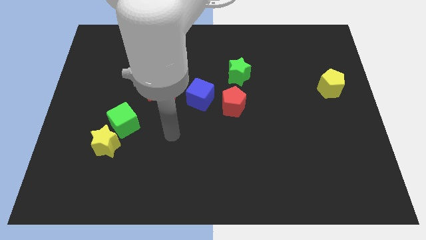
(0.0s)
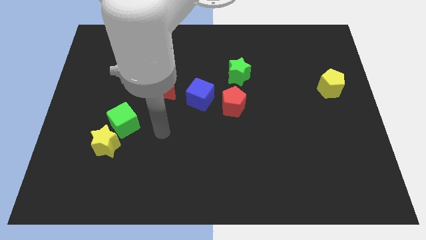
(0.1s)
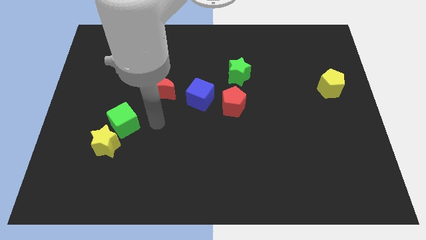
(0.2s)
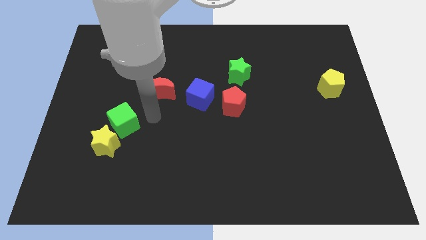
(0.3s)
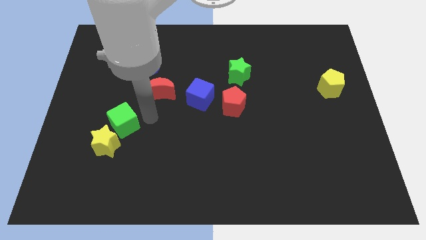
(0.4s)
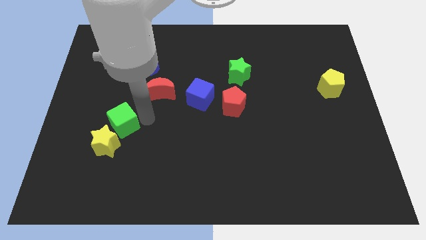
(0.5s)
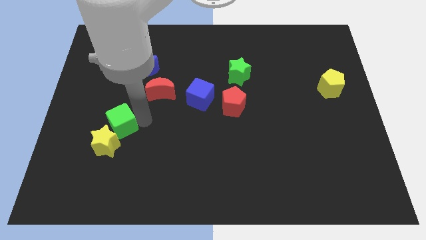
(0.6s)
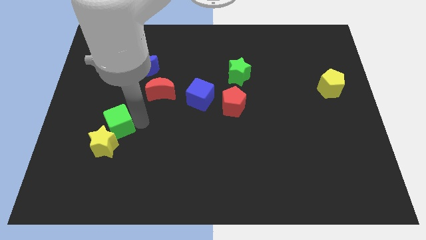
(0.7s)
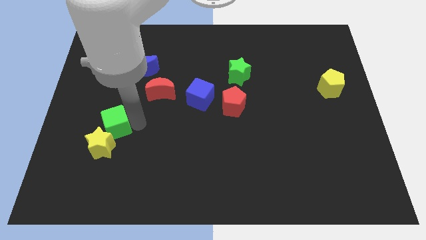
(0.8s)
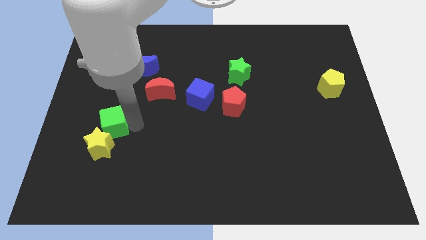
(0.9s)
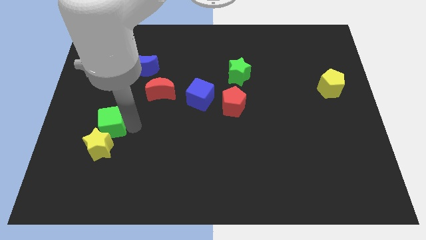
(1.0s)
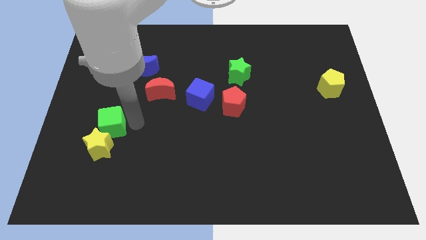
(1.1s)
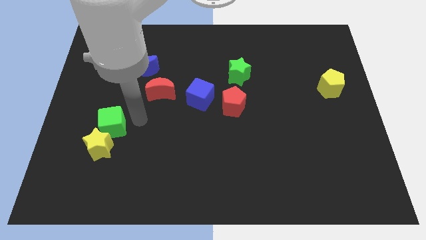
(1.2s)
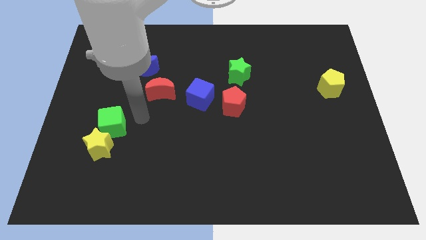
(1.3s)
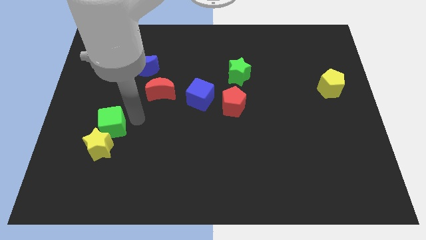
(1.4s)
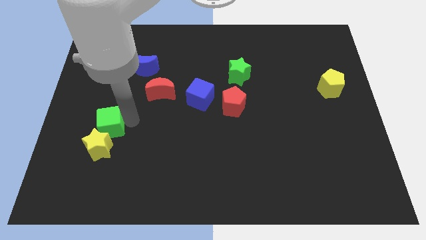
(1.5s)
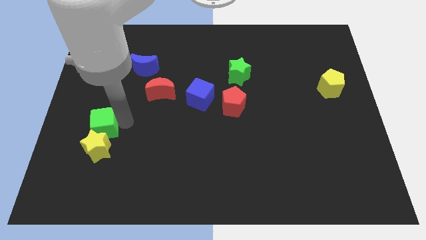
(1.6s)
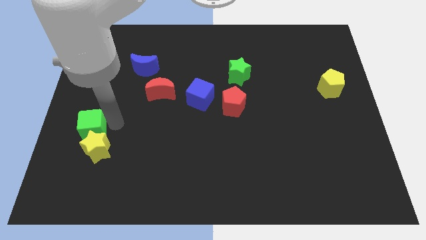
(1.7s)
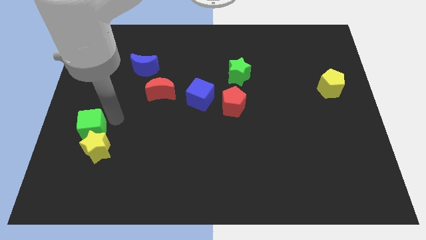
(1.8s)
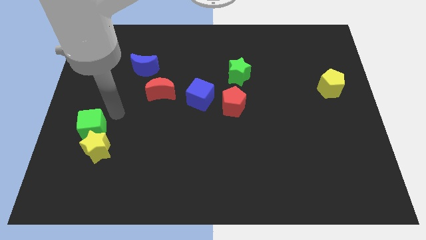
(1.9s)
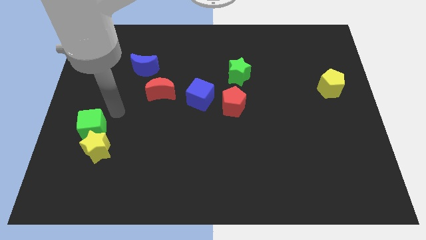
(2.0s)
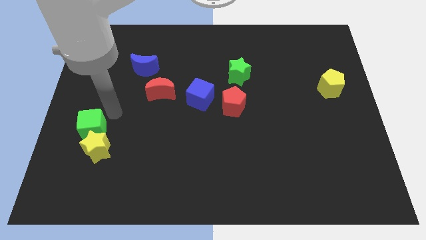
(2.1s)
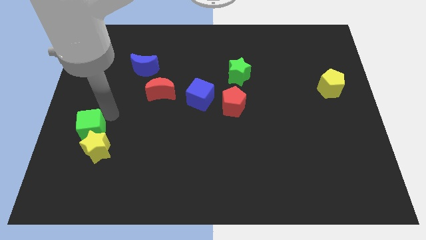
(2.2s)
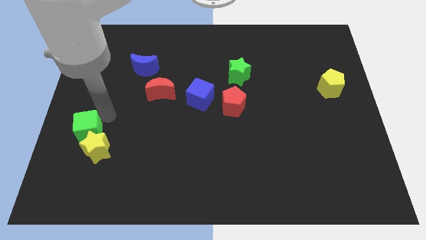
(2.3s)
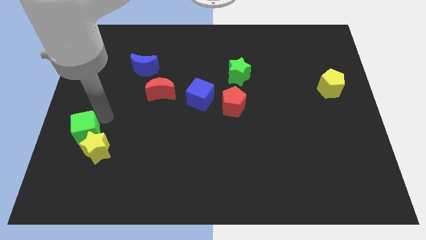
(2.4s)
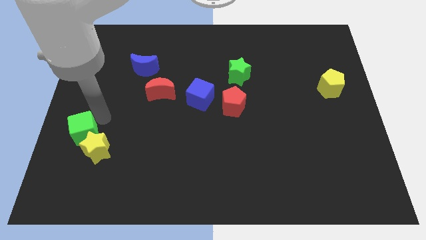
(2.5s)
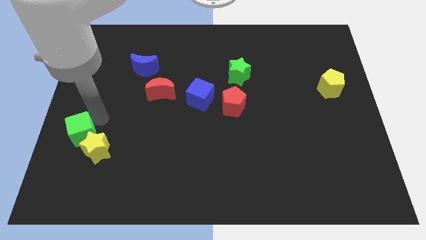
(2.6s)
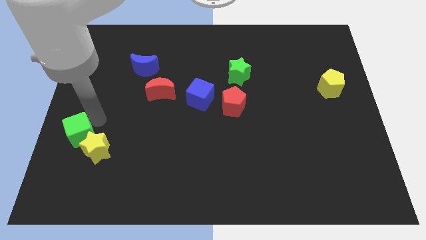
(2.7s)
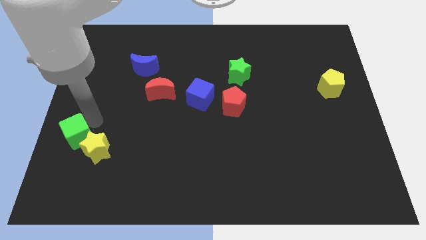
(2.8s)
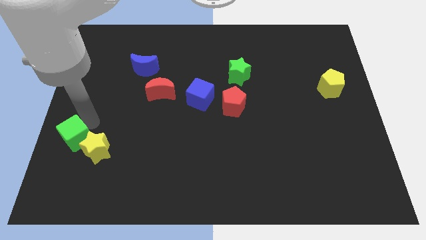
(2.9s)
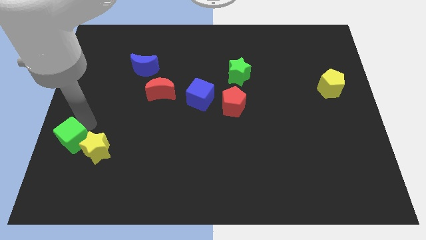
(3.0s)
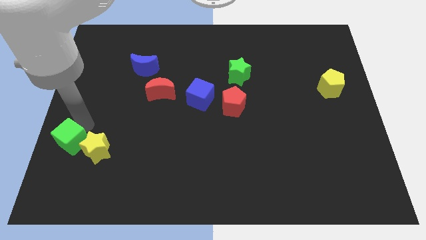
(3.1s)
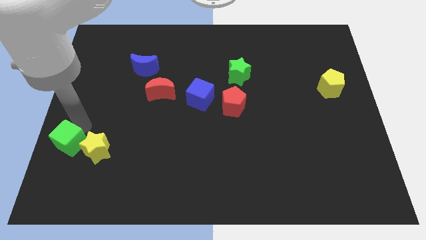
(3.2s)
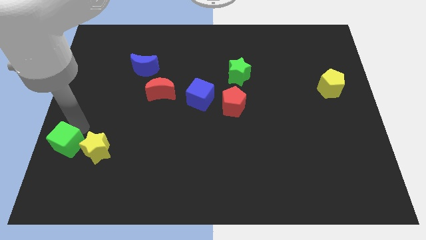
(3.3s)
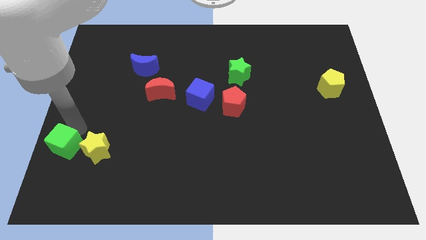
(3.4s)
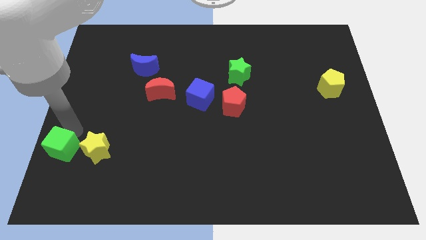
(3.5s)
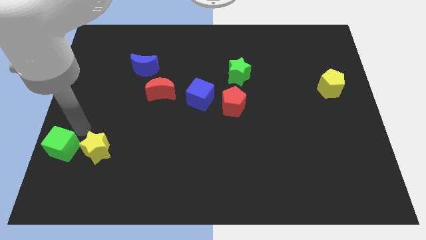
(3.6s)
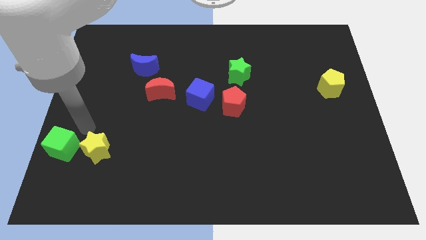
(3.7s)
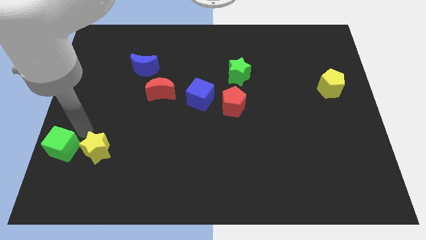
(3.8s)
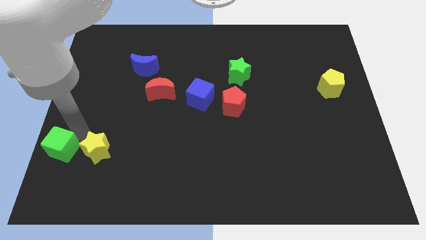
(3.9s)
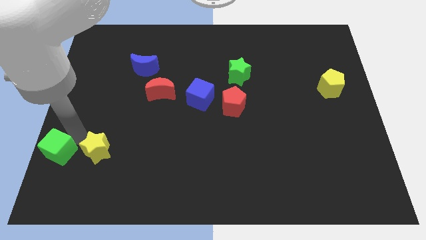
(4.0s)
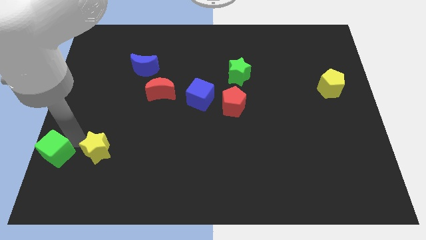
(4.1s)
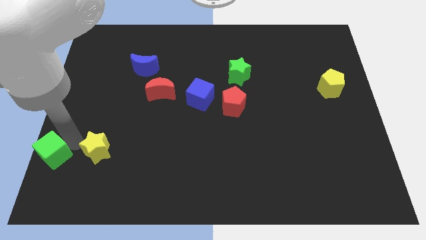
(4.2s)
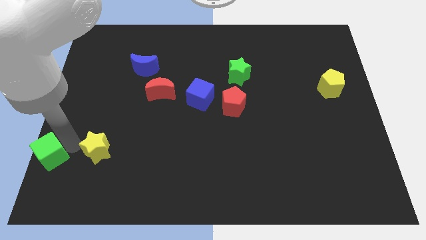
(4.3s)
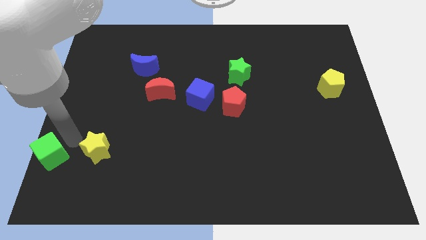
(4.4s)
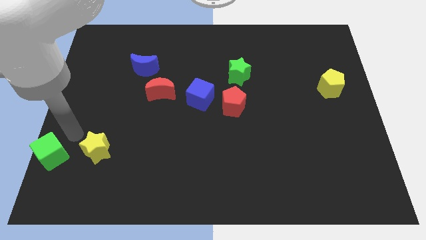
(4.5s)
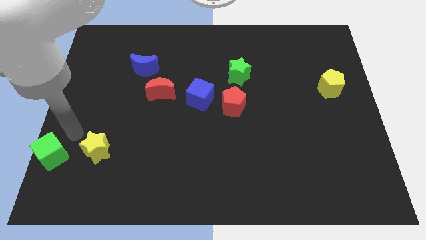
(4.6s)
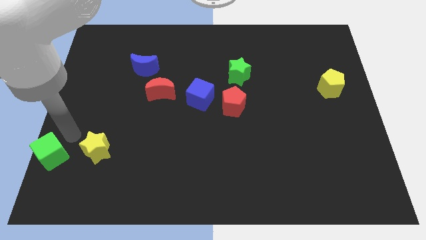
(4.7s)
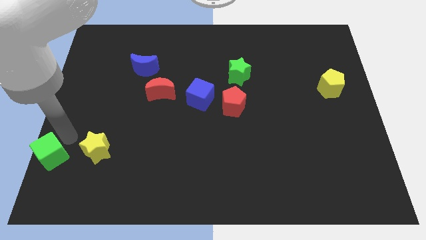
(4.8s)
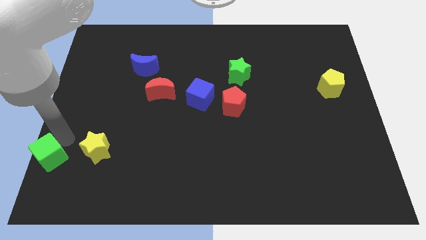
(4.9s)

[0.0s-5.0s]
move the green cube to the lower left corner

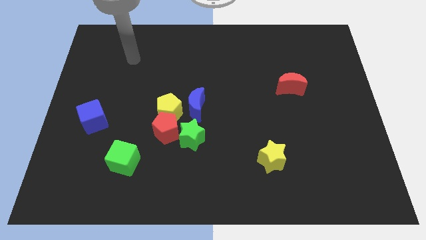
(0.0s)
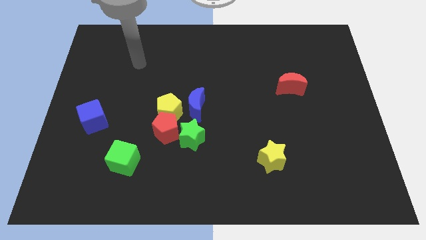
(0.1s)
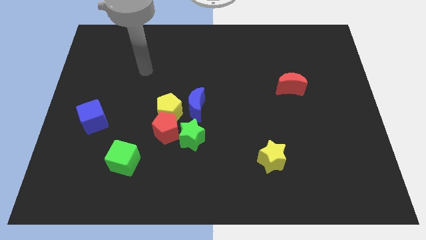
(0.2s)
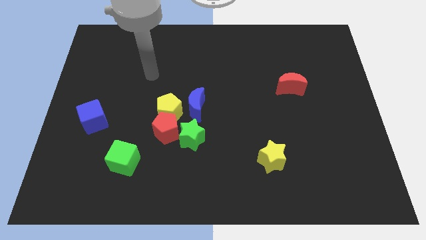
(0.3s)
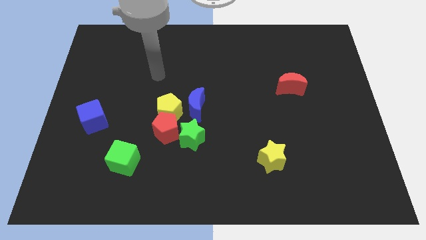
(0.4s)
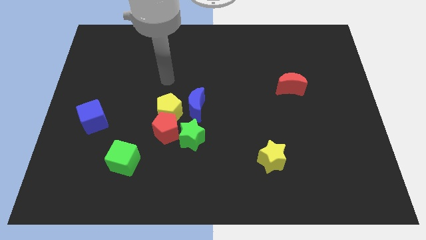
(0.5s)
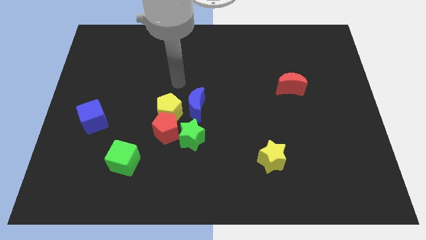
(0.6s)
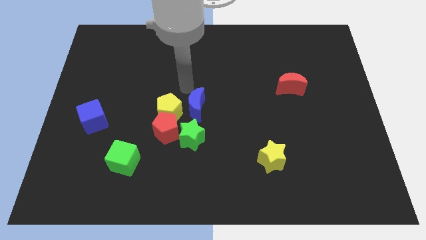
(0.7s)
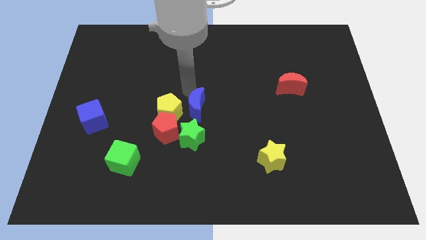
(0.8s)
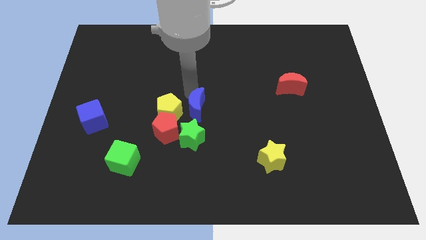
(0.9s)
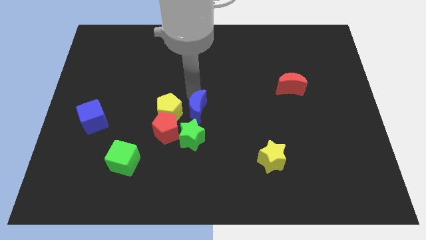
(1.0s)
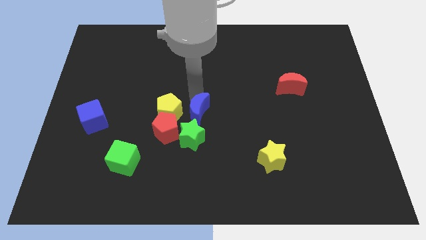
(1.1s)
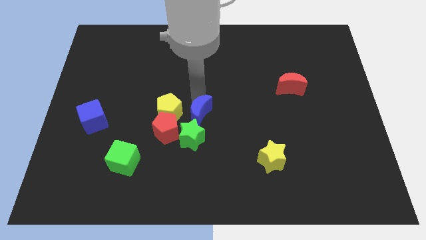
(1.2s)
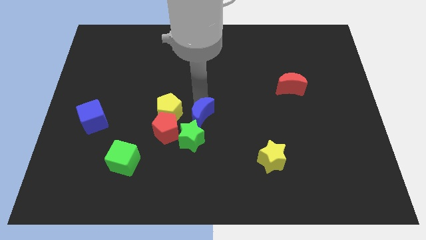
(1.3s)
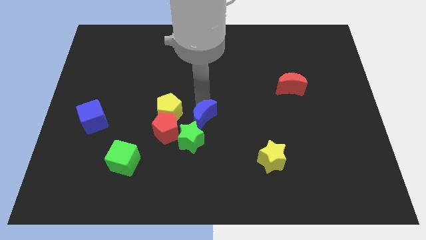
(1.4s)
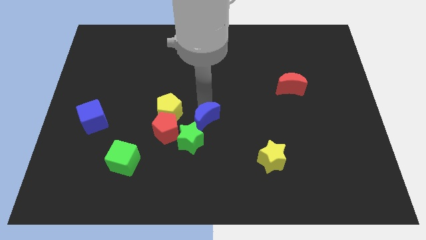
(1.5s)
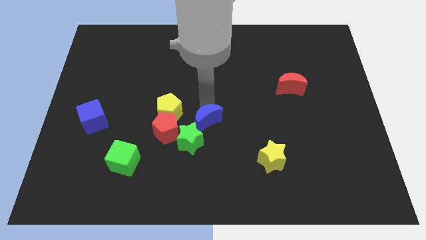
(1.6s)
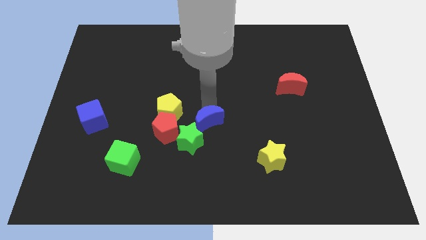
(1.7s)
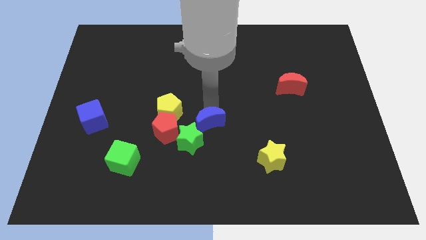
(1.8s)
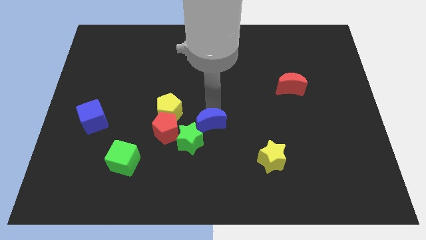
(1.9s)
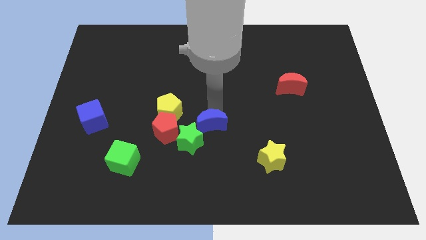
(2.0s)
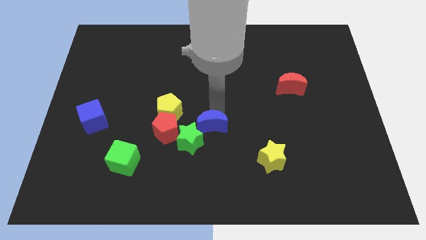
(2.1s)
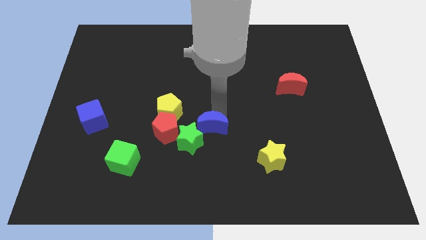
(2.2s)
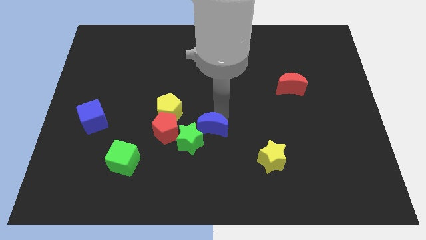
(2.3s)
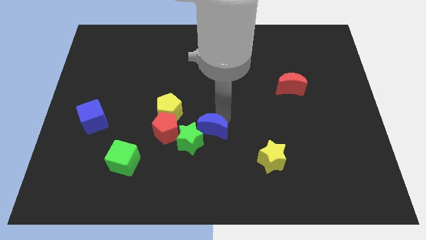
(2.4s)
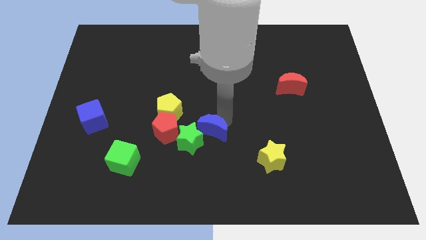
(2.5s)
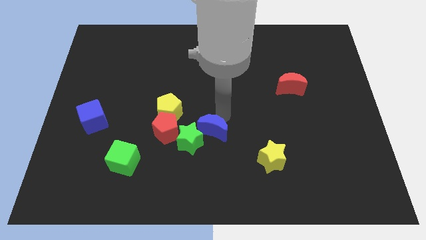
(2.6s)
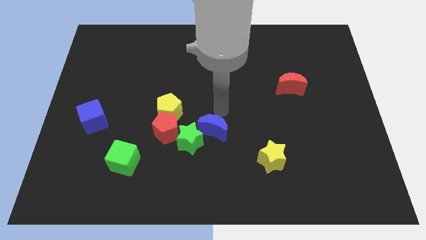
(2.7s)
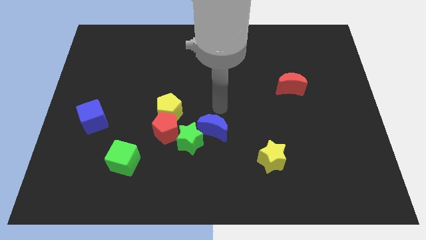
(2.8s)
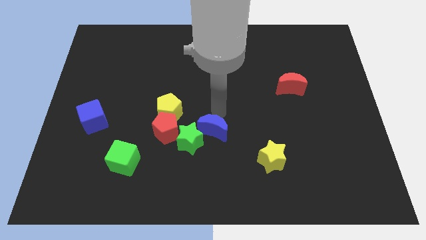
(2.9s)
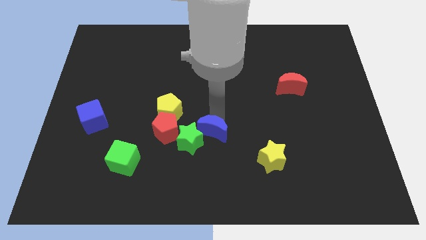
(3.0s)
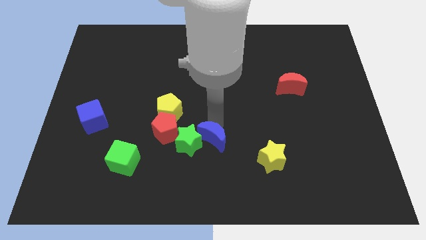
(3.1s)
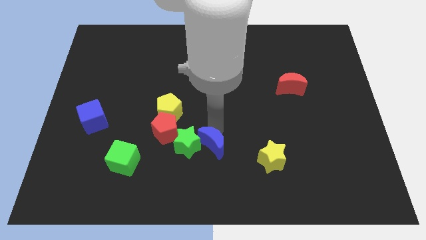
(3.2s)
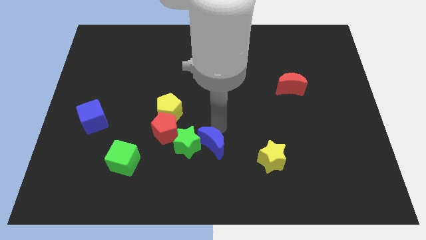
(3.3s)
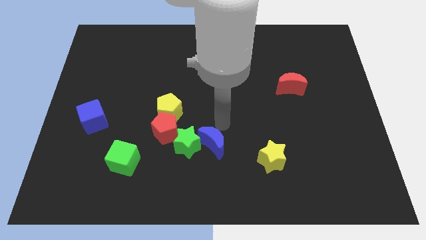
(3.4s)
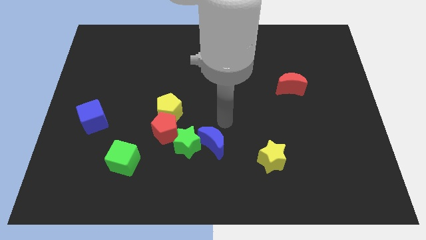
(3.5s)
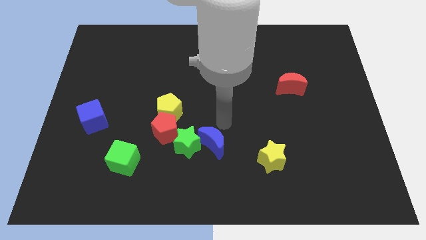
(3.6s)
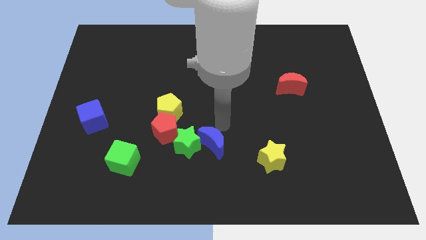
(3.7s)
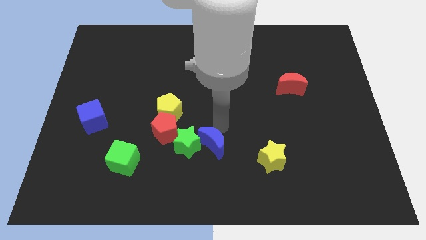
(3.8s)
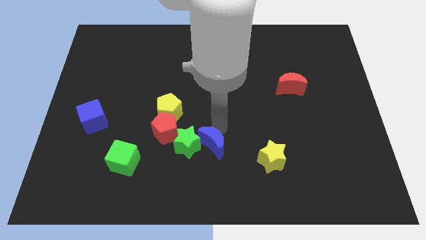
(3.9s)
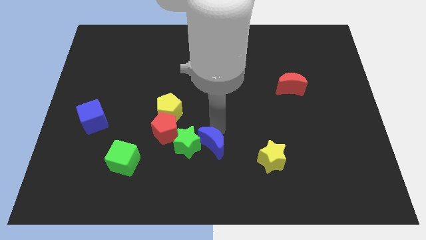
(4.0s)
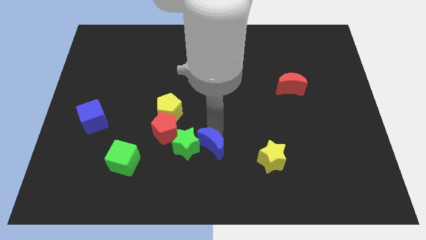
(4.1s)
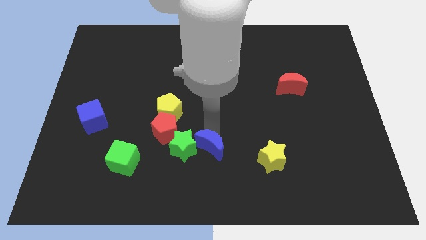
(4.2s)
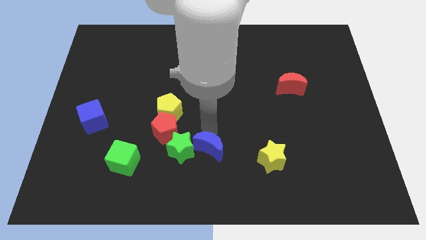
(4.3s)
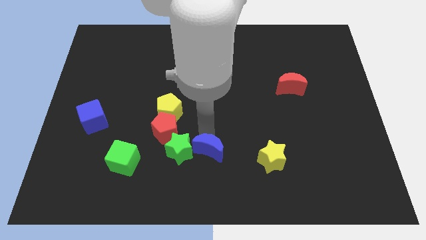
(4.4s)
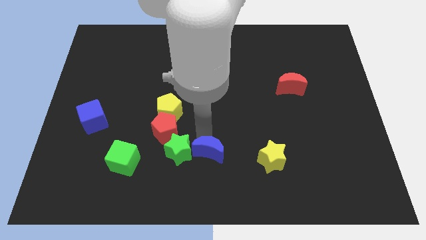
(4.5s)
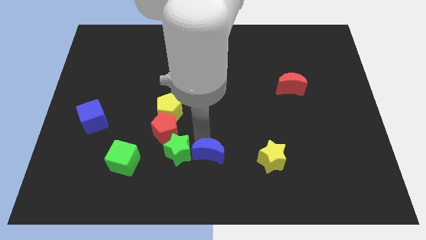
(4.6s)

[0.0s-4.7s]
move the blue moon to the bottom
